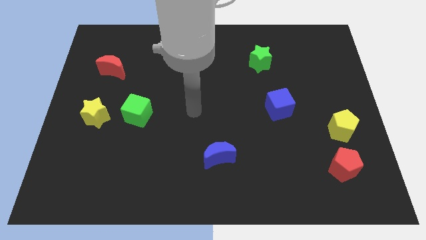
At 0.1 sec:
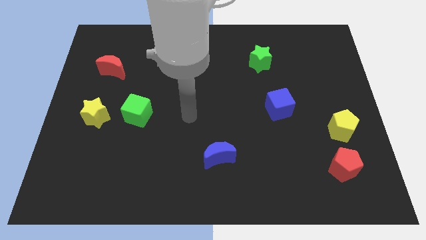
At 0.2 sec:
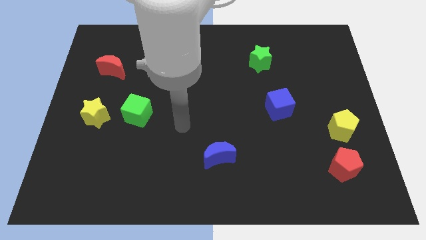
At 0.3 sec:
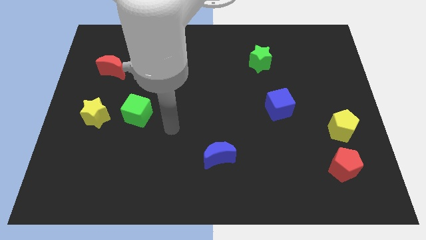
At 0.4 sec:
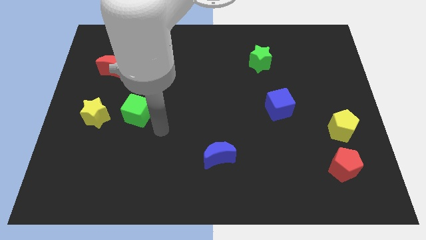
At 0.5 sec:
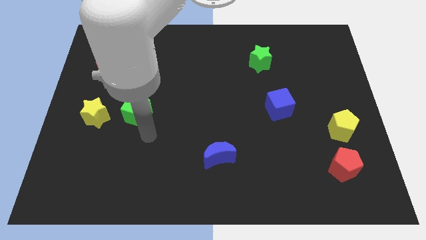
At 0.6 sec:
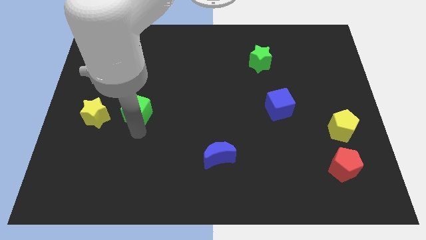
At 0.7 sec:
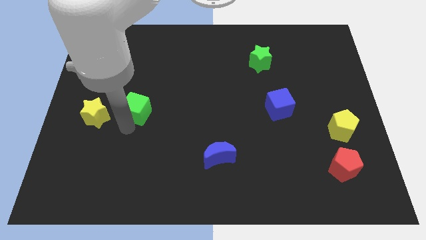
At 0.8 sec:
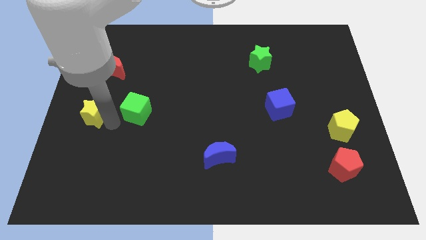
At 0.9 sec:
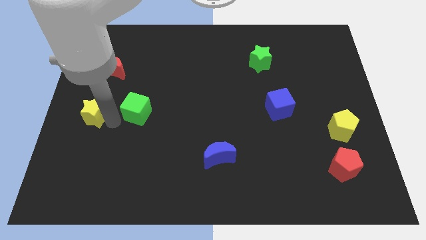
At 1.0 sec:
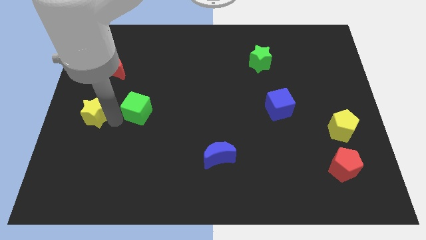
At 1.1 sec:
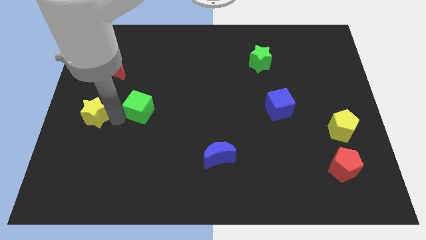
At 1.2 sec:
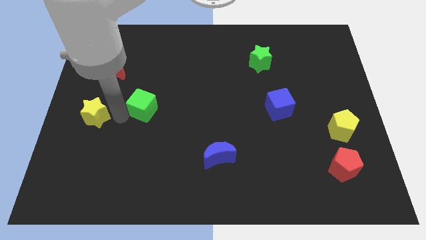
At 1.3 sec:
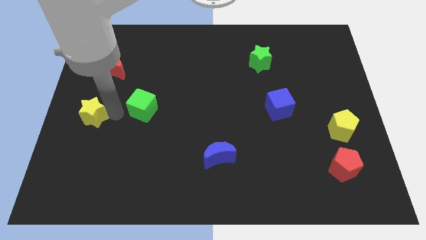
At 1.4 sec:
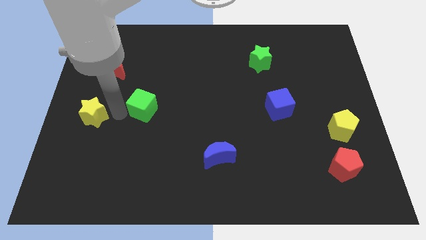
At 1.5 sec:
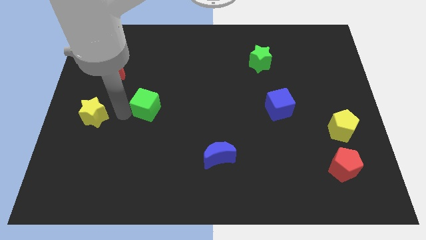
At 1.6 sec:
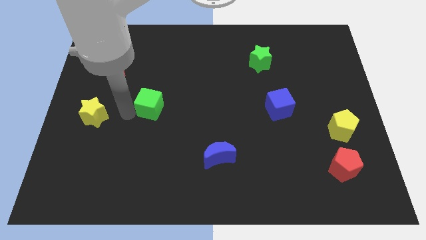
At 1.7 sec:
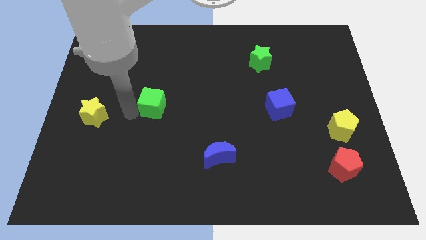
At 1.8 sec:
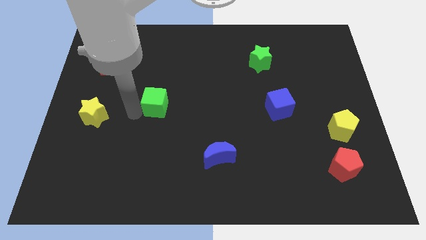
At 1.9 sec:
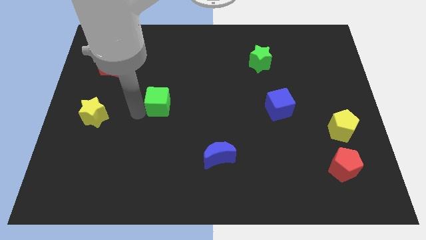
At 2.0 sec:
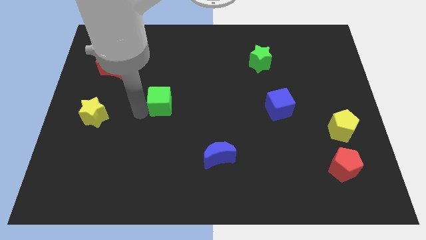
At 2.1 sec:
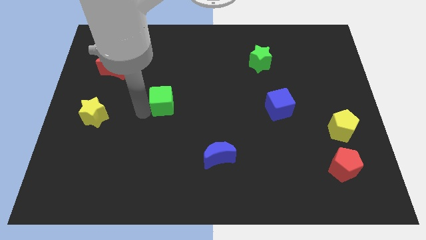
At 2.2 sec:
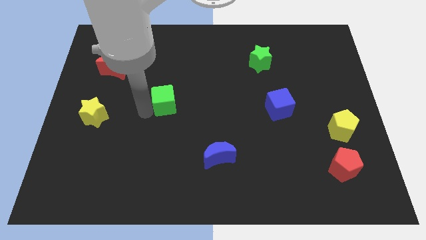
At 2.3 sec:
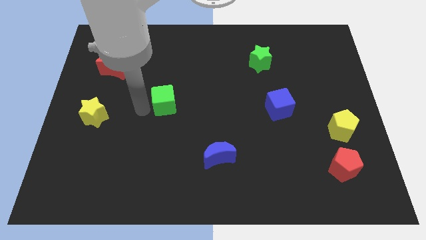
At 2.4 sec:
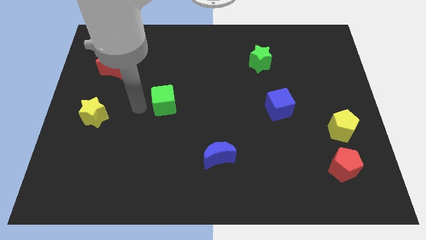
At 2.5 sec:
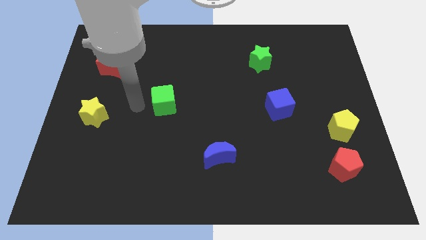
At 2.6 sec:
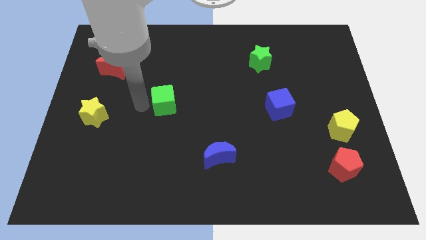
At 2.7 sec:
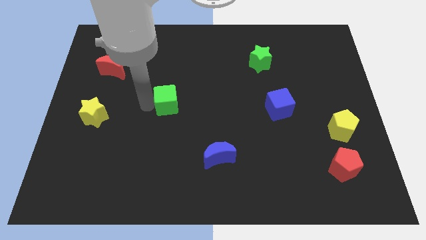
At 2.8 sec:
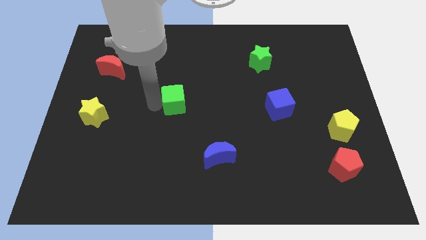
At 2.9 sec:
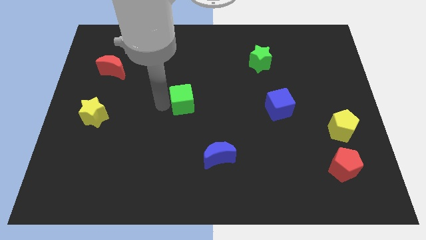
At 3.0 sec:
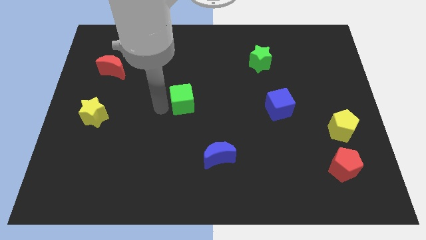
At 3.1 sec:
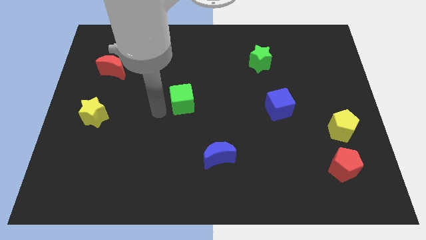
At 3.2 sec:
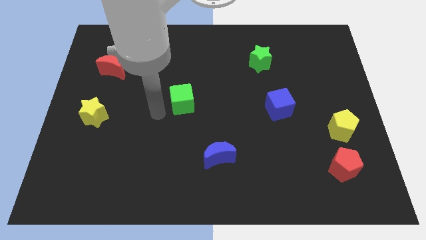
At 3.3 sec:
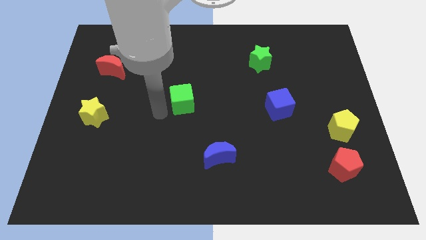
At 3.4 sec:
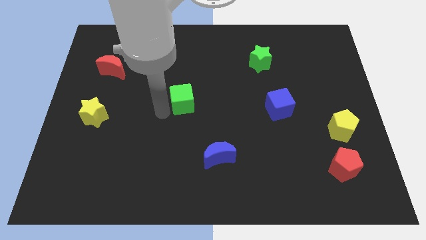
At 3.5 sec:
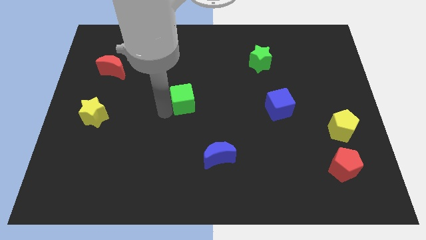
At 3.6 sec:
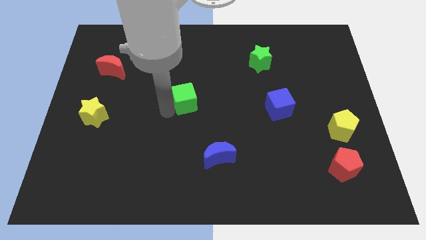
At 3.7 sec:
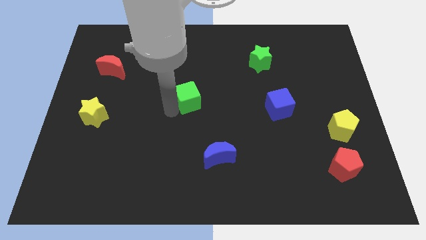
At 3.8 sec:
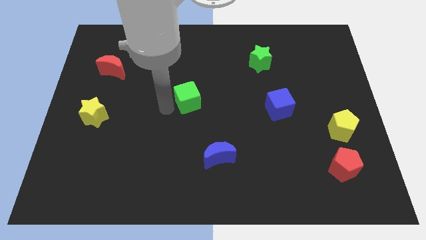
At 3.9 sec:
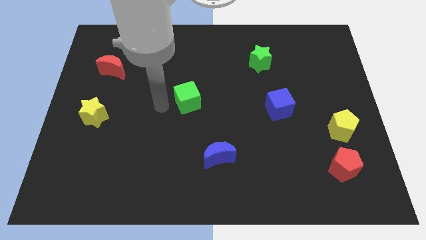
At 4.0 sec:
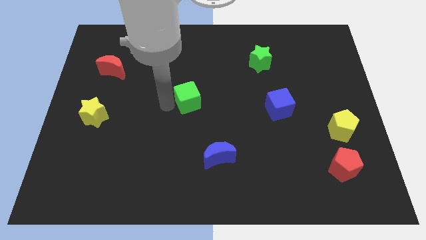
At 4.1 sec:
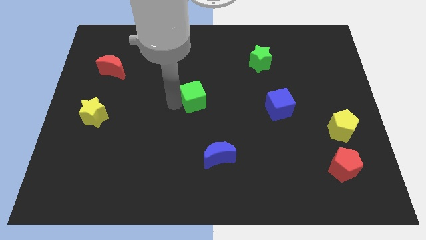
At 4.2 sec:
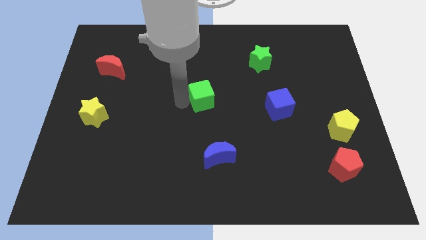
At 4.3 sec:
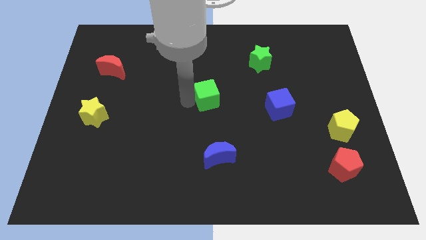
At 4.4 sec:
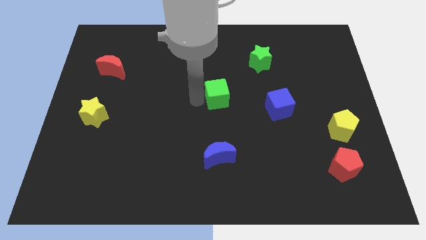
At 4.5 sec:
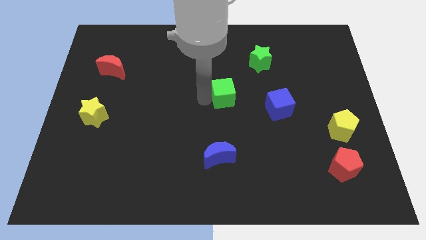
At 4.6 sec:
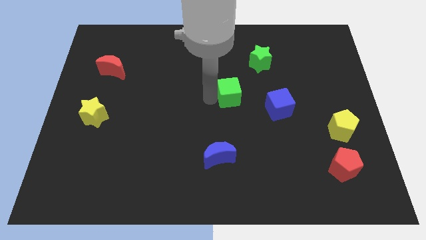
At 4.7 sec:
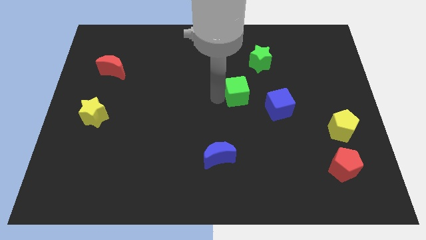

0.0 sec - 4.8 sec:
push the green cube to the top left of the blue cube

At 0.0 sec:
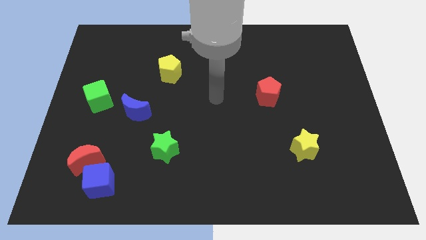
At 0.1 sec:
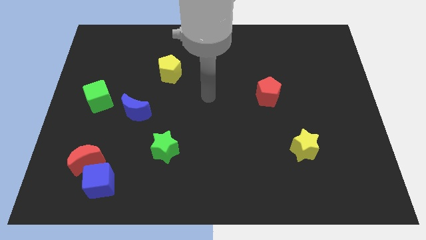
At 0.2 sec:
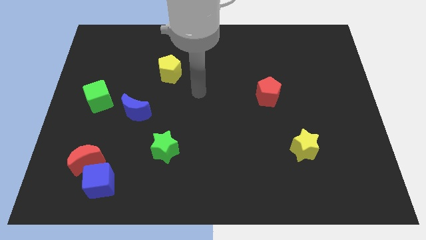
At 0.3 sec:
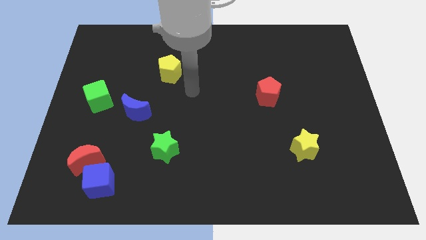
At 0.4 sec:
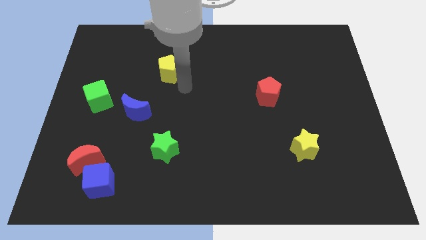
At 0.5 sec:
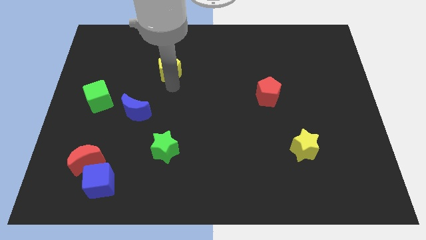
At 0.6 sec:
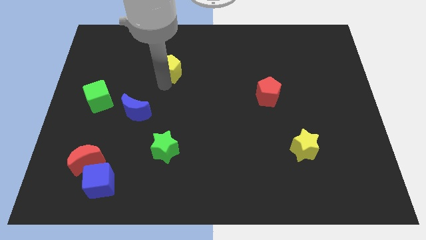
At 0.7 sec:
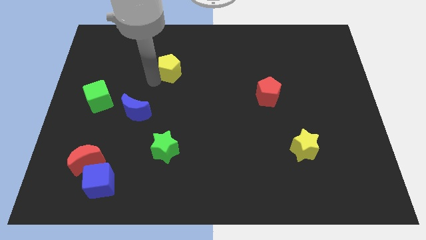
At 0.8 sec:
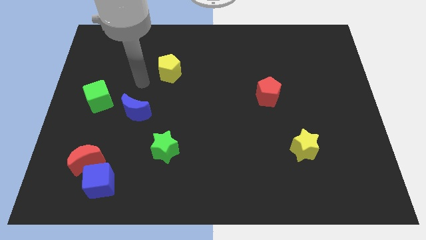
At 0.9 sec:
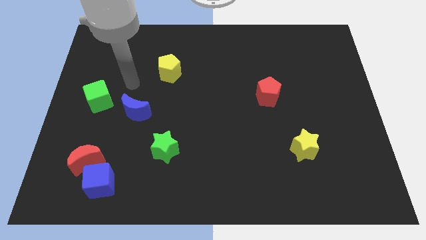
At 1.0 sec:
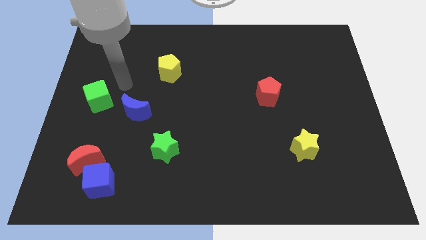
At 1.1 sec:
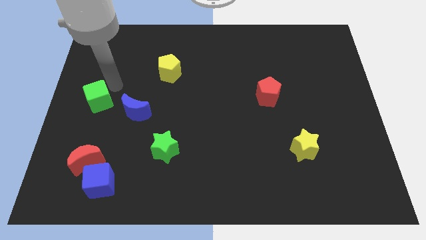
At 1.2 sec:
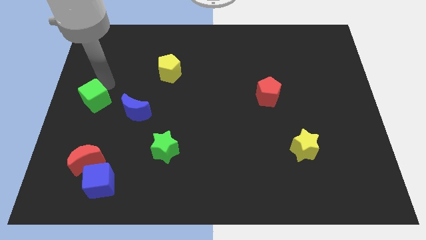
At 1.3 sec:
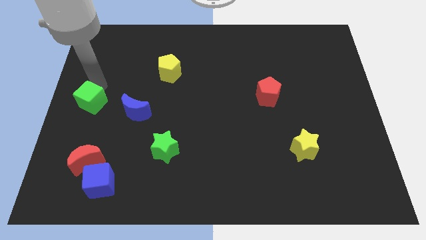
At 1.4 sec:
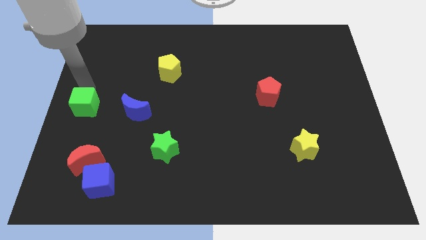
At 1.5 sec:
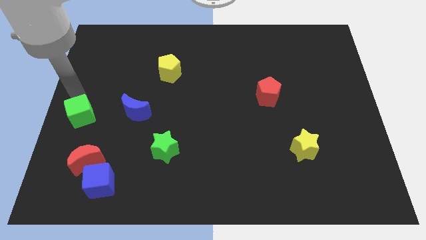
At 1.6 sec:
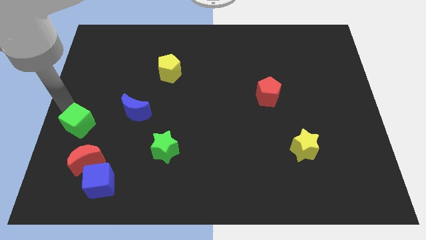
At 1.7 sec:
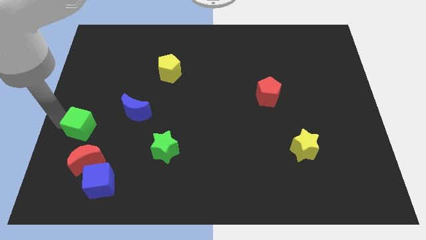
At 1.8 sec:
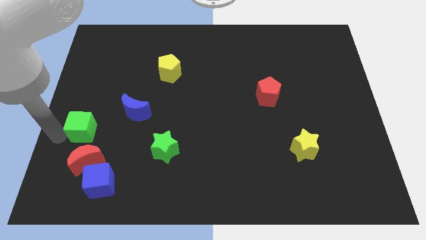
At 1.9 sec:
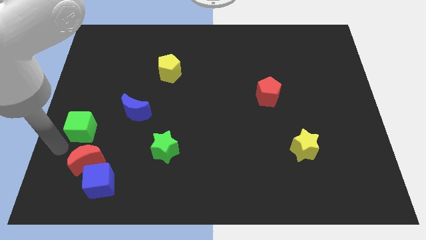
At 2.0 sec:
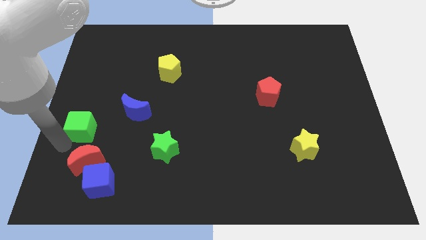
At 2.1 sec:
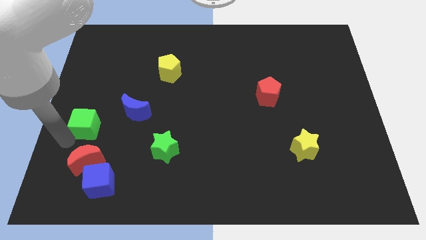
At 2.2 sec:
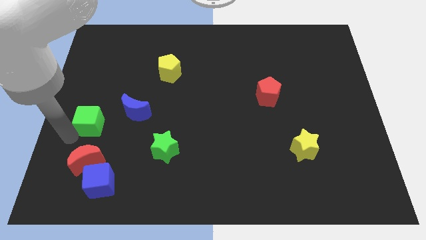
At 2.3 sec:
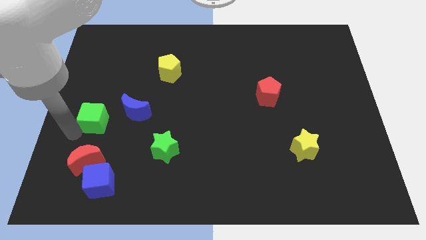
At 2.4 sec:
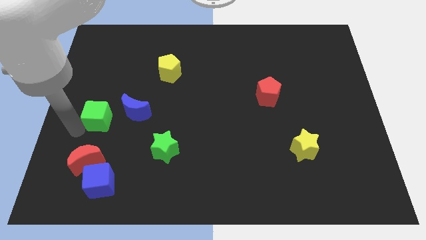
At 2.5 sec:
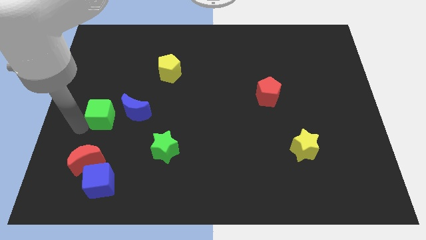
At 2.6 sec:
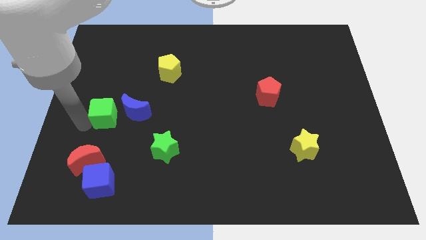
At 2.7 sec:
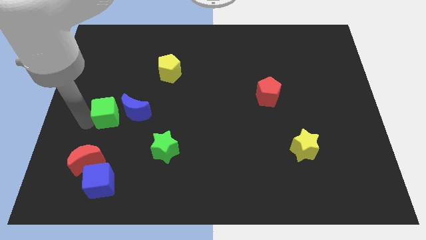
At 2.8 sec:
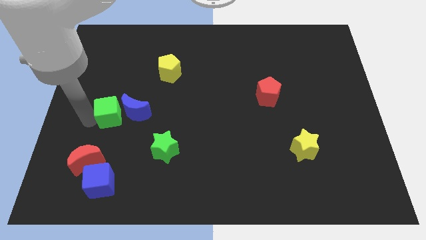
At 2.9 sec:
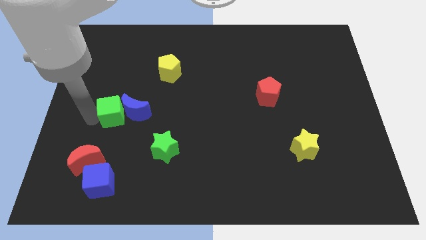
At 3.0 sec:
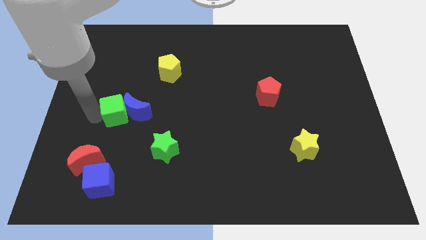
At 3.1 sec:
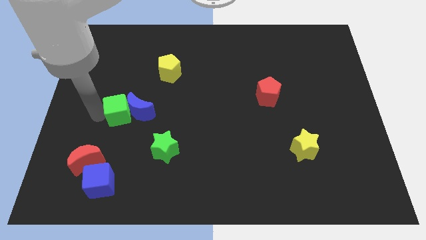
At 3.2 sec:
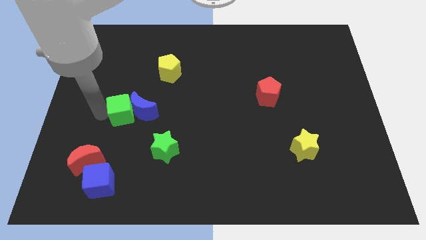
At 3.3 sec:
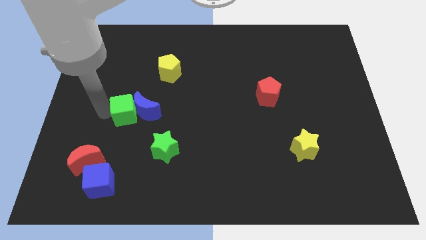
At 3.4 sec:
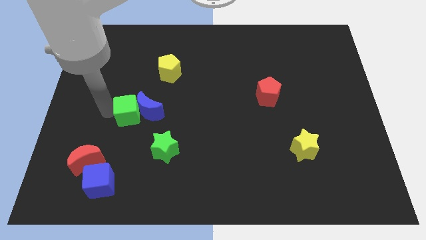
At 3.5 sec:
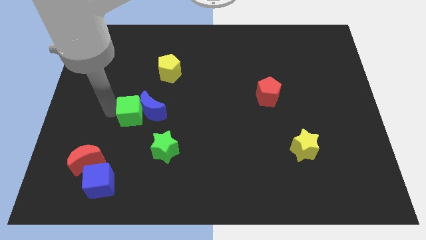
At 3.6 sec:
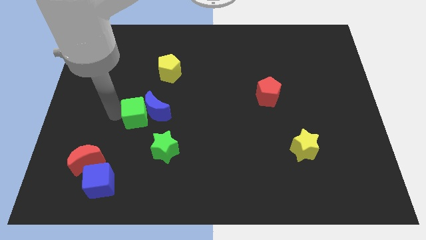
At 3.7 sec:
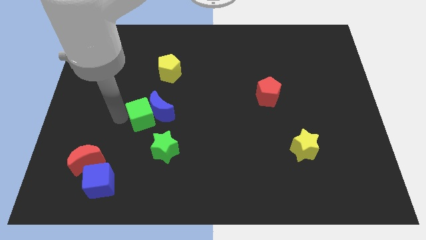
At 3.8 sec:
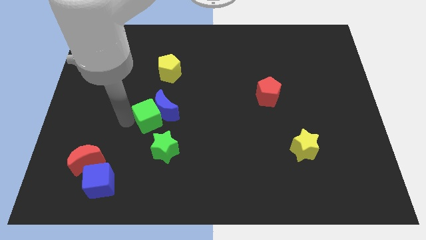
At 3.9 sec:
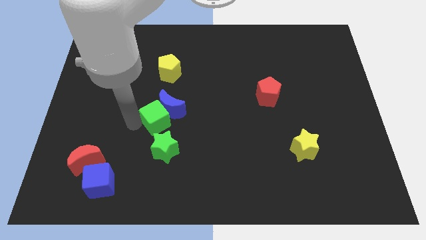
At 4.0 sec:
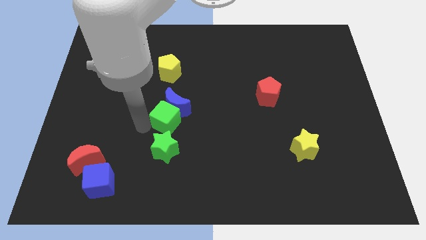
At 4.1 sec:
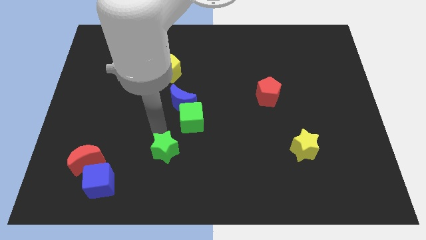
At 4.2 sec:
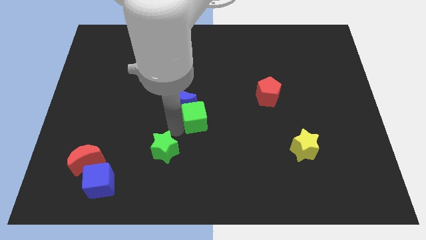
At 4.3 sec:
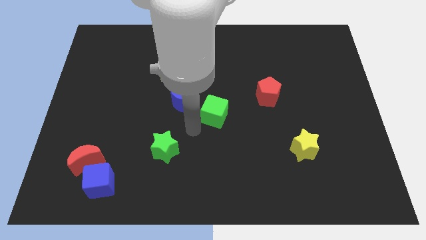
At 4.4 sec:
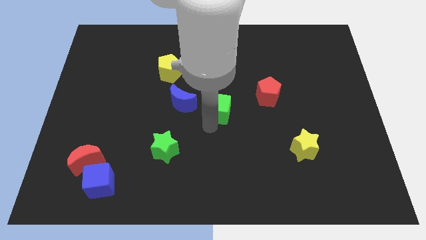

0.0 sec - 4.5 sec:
slide the green cube just left of the red pentagon
